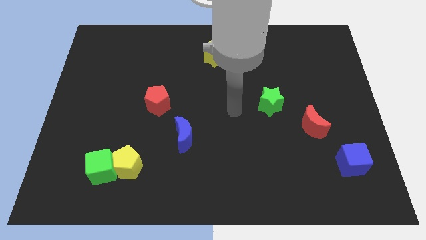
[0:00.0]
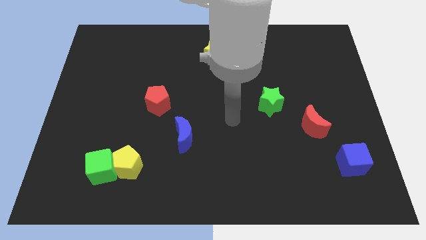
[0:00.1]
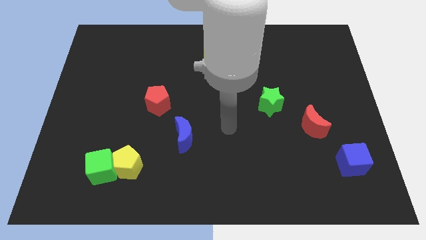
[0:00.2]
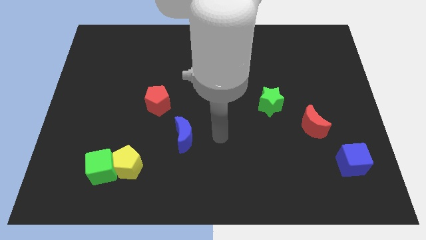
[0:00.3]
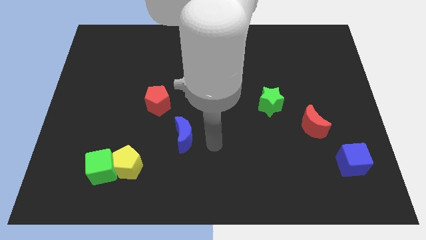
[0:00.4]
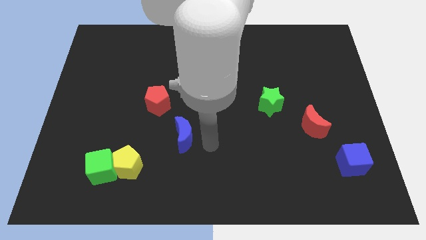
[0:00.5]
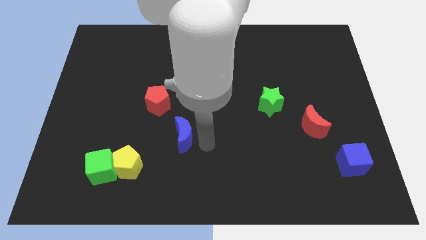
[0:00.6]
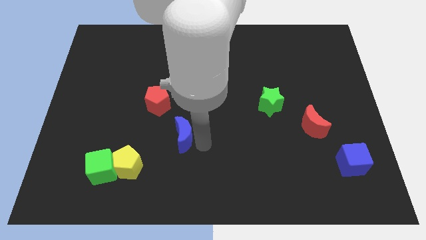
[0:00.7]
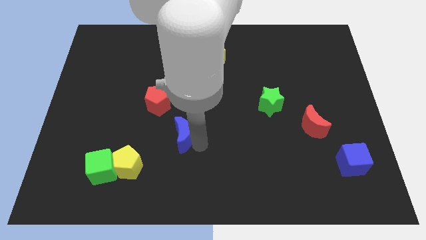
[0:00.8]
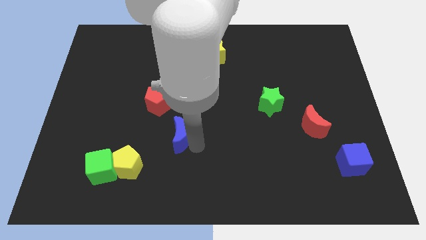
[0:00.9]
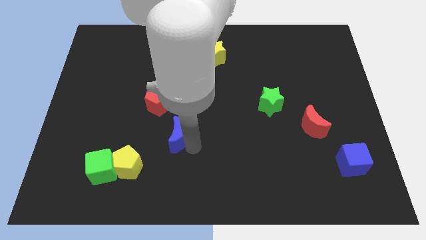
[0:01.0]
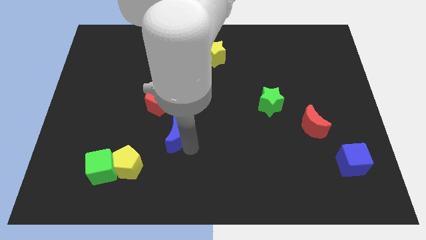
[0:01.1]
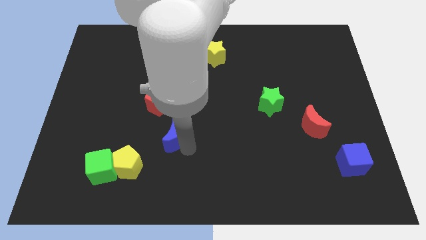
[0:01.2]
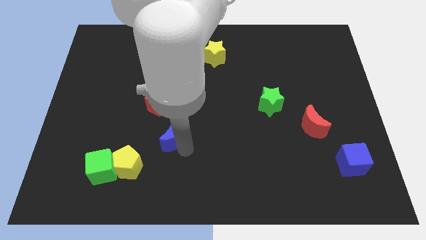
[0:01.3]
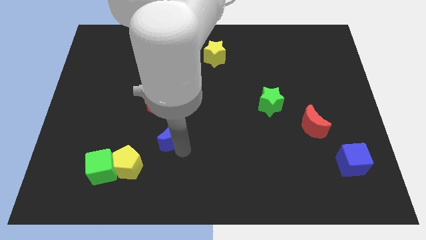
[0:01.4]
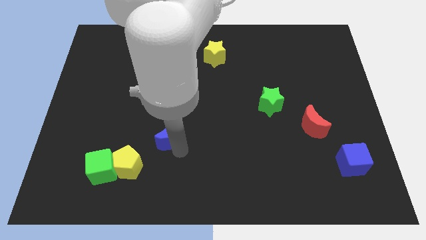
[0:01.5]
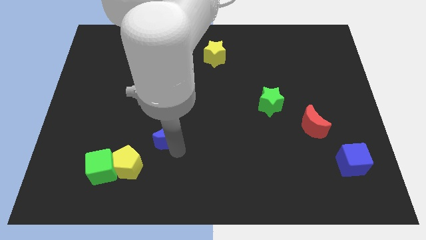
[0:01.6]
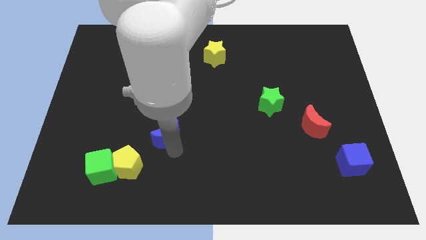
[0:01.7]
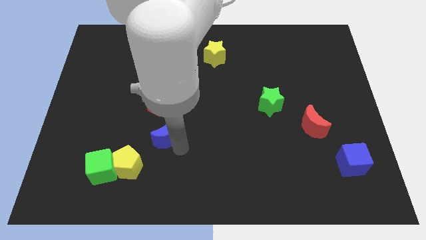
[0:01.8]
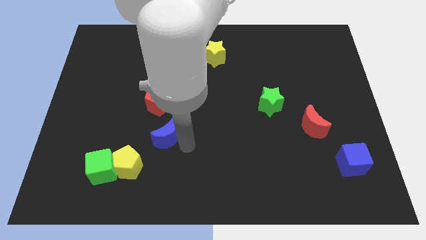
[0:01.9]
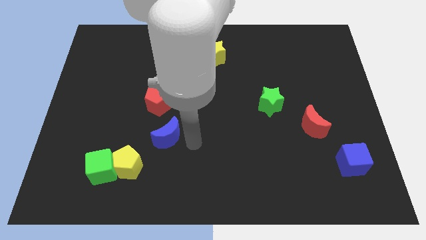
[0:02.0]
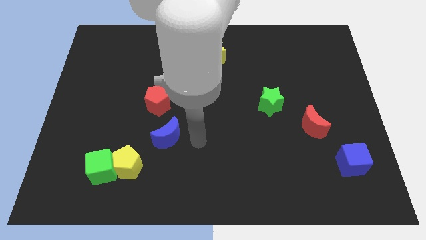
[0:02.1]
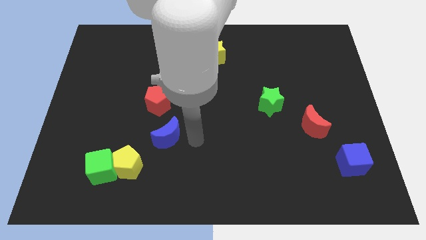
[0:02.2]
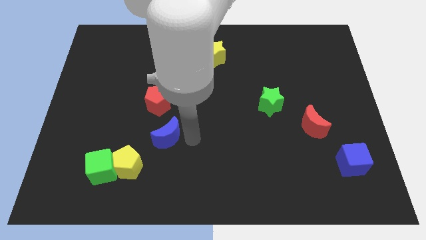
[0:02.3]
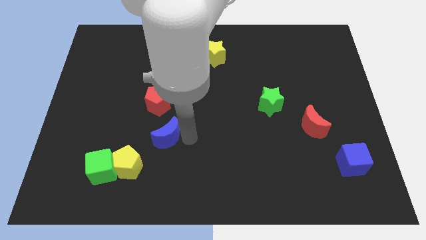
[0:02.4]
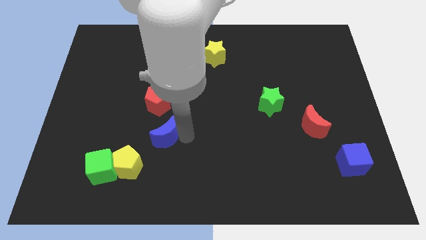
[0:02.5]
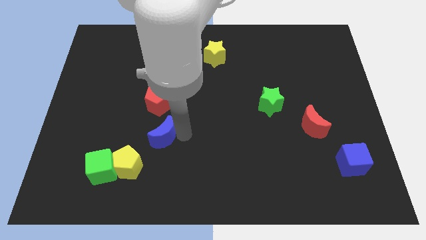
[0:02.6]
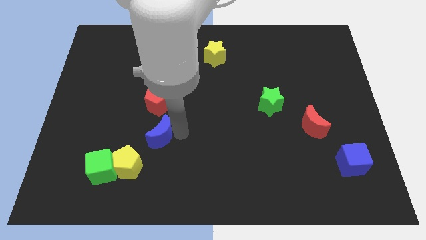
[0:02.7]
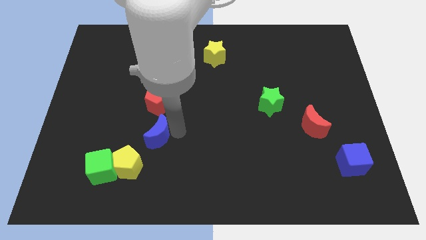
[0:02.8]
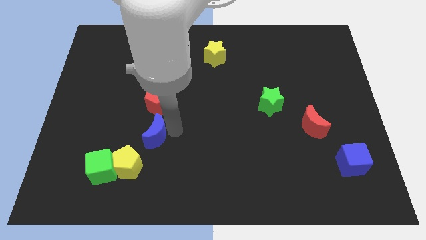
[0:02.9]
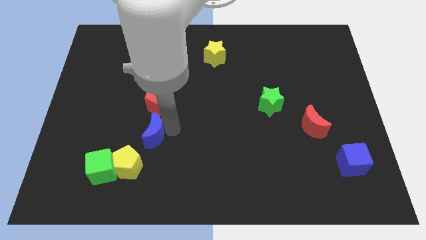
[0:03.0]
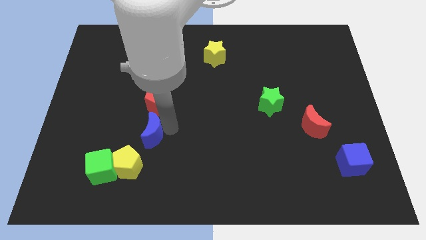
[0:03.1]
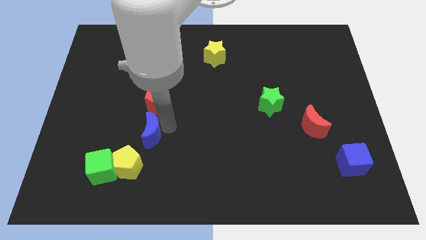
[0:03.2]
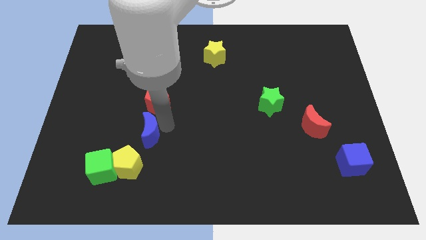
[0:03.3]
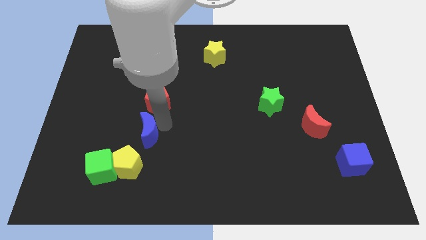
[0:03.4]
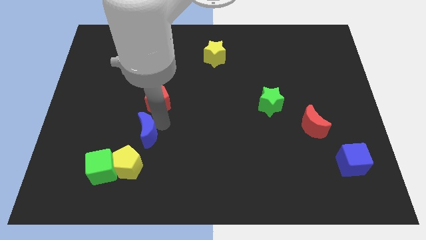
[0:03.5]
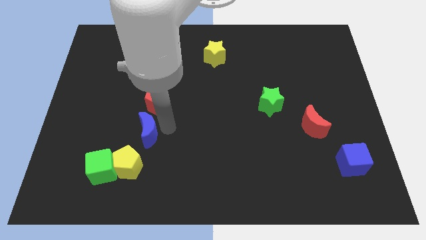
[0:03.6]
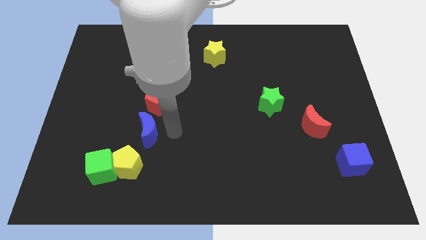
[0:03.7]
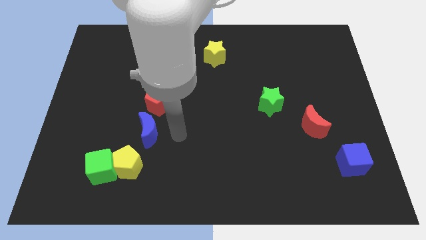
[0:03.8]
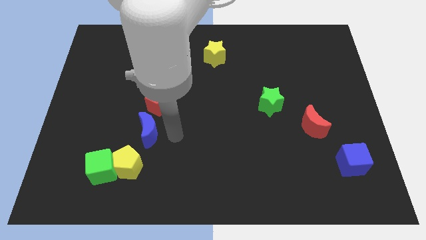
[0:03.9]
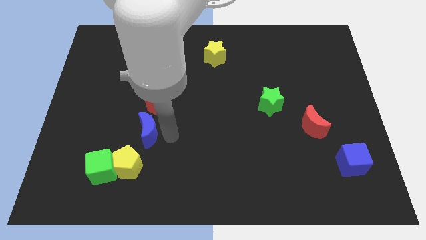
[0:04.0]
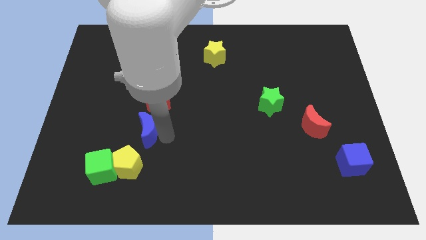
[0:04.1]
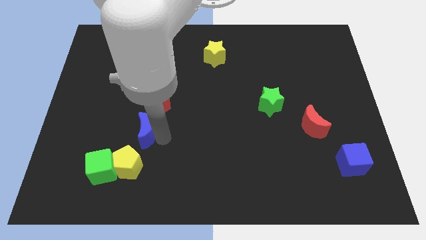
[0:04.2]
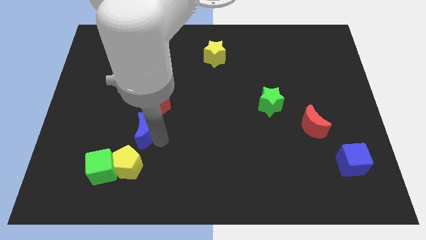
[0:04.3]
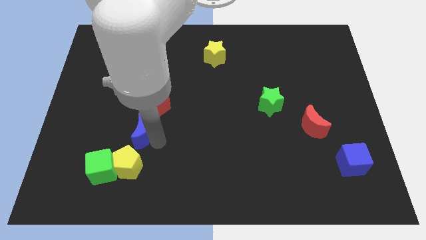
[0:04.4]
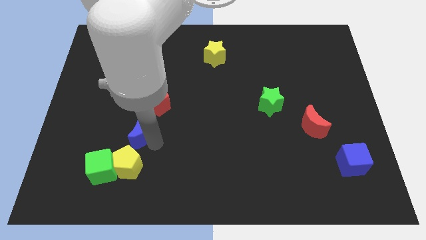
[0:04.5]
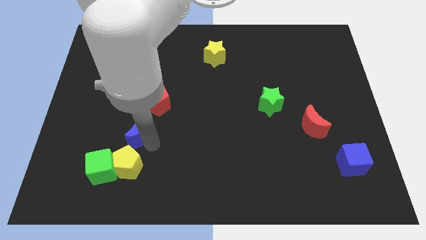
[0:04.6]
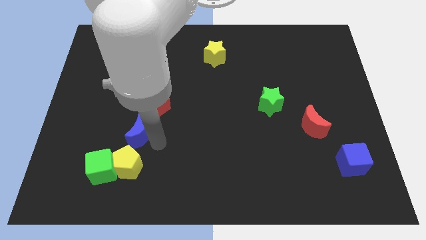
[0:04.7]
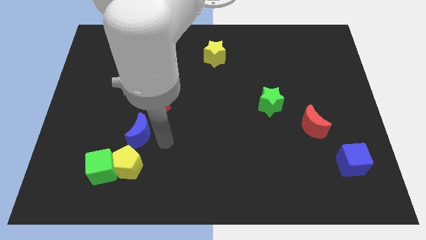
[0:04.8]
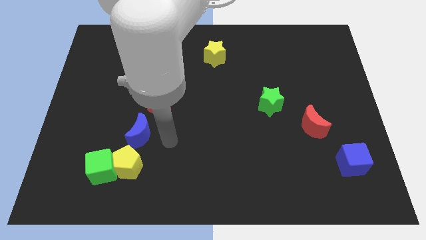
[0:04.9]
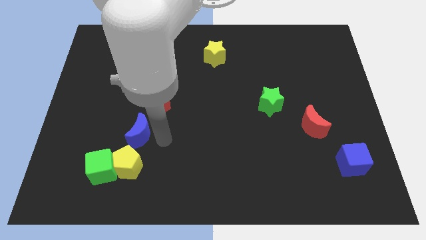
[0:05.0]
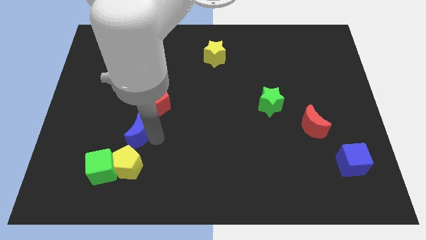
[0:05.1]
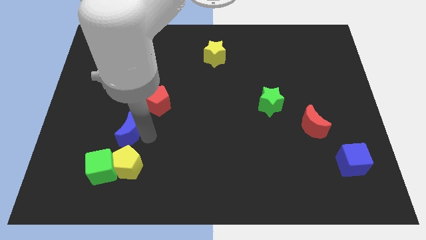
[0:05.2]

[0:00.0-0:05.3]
slide the blue moon to the top of the green cube

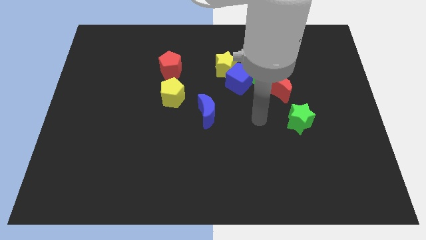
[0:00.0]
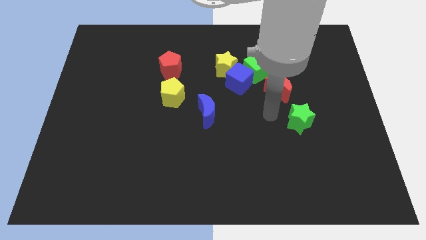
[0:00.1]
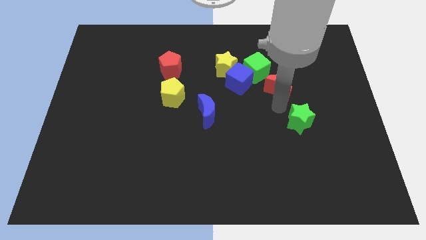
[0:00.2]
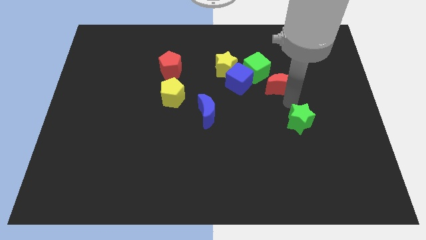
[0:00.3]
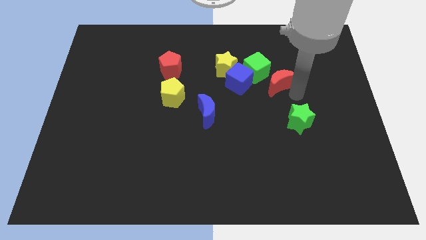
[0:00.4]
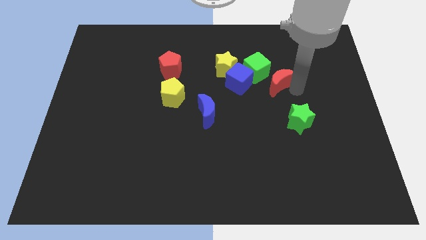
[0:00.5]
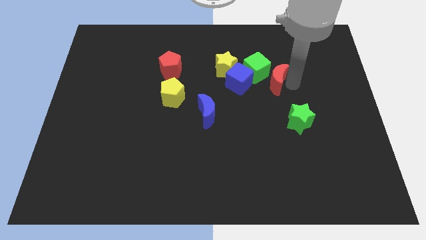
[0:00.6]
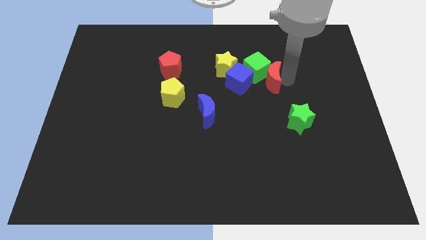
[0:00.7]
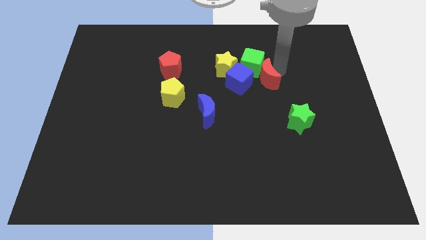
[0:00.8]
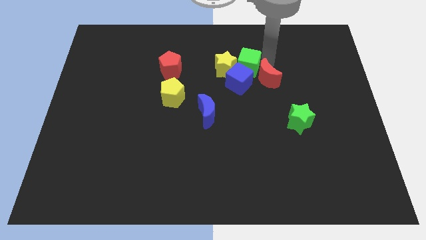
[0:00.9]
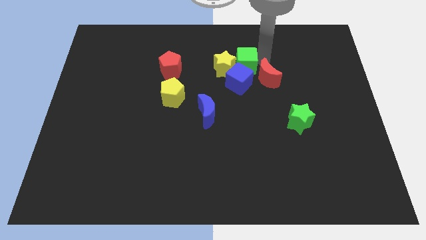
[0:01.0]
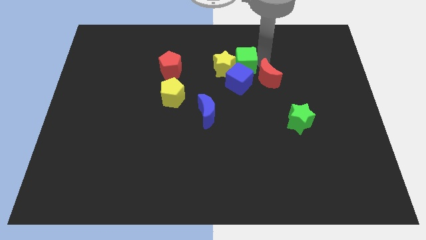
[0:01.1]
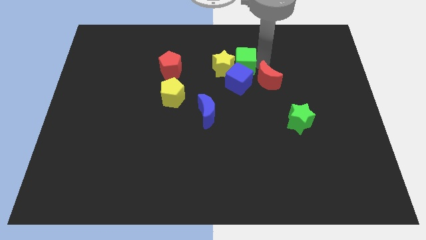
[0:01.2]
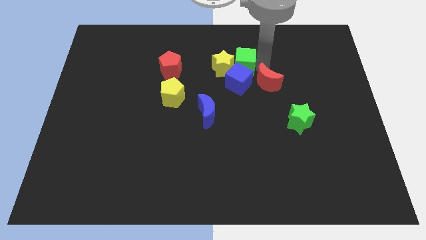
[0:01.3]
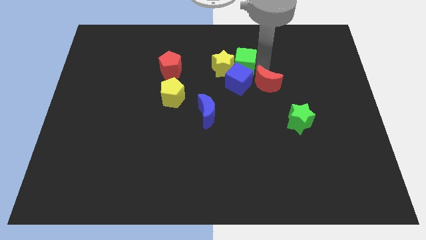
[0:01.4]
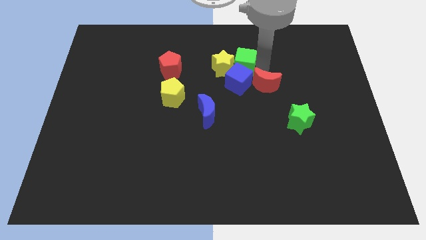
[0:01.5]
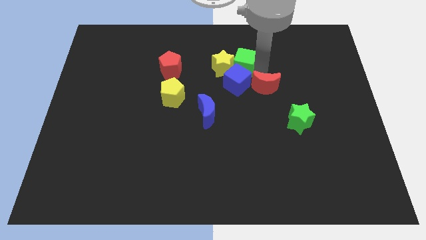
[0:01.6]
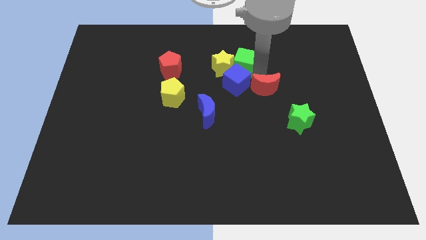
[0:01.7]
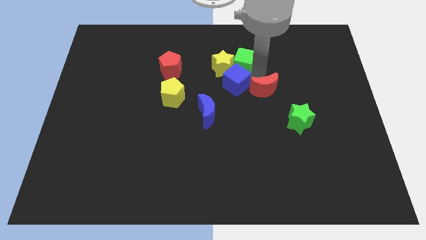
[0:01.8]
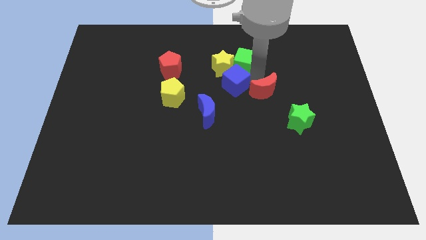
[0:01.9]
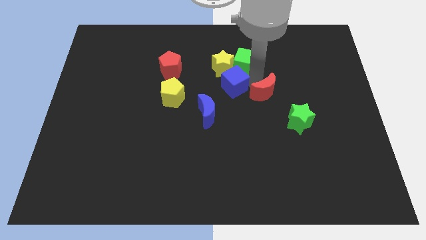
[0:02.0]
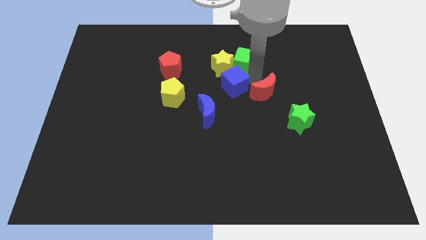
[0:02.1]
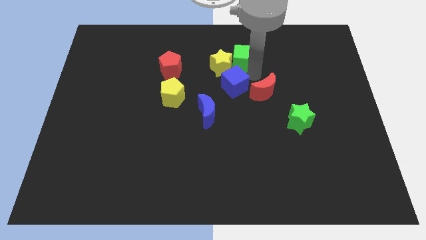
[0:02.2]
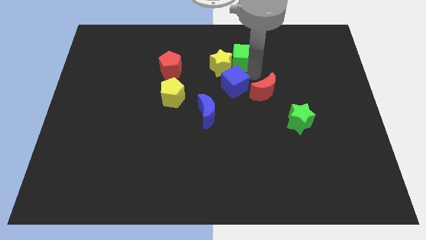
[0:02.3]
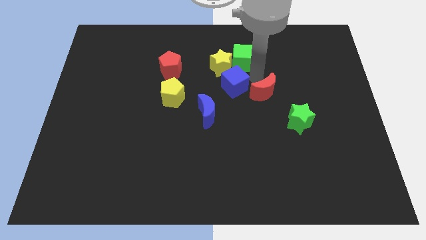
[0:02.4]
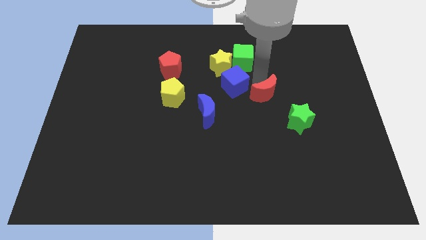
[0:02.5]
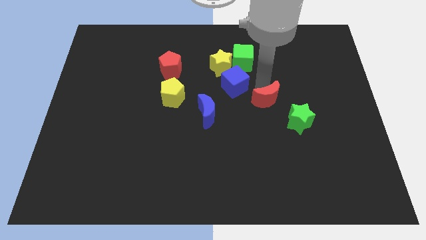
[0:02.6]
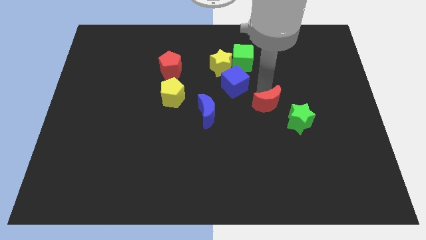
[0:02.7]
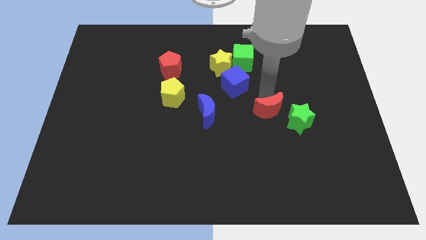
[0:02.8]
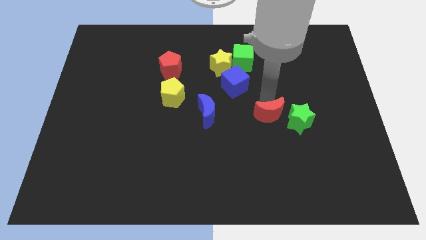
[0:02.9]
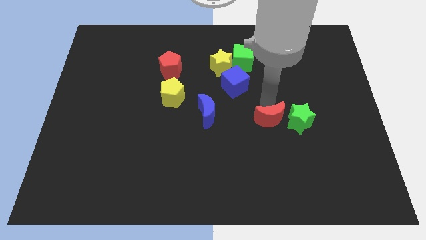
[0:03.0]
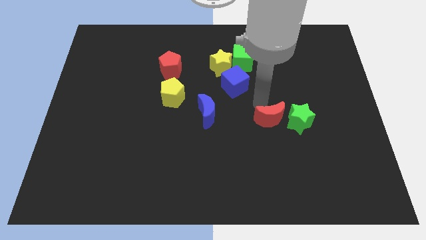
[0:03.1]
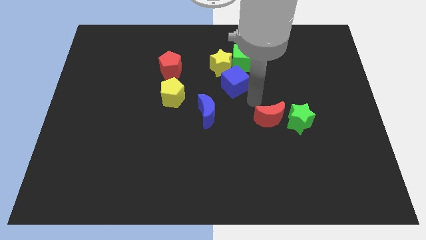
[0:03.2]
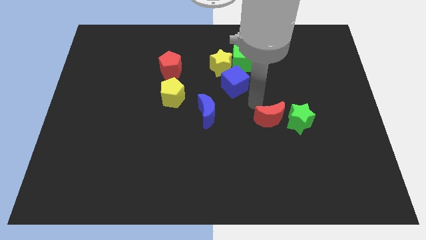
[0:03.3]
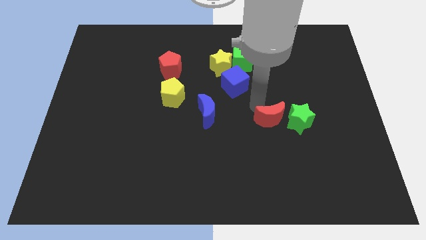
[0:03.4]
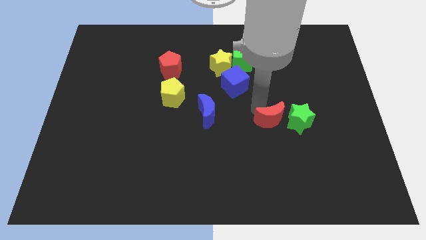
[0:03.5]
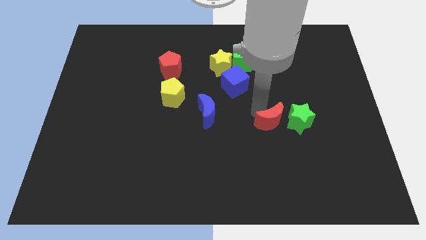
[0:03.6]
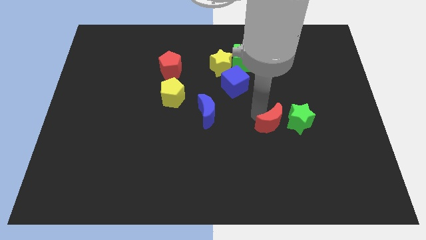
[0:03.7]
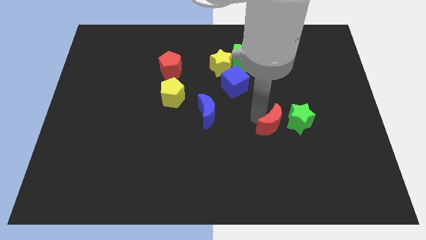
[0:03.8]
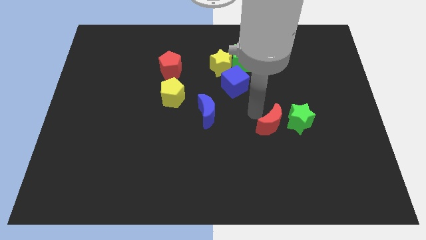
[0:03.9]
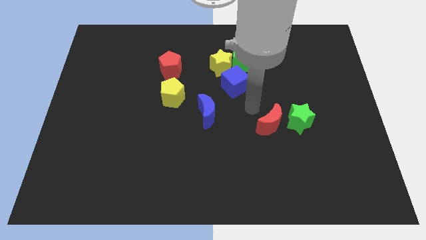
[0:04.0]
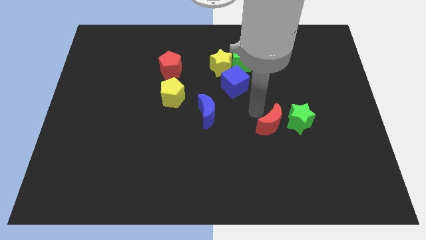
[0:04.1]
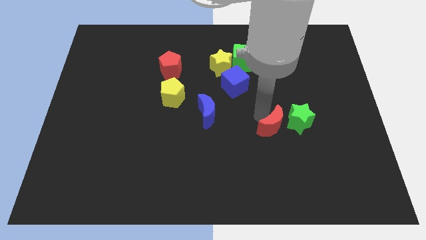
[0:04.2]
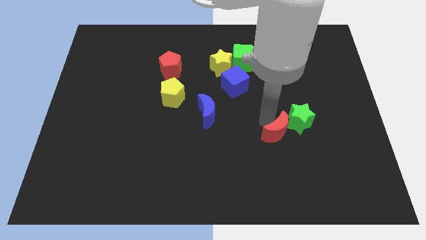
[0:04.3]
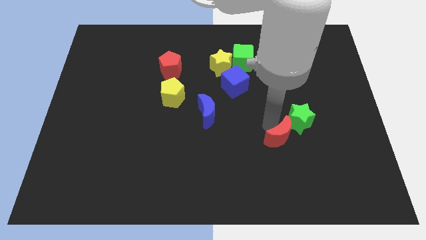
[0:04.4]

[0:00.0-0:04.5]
put the red moon below the green star
